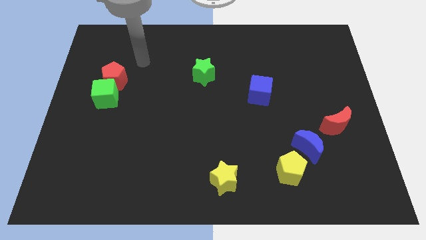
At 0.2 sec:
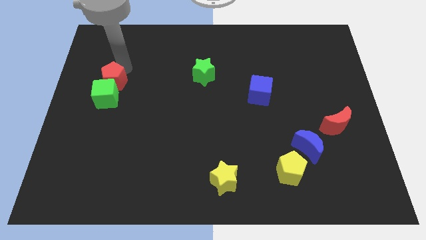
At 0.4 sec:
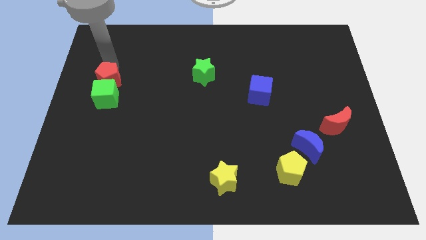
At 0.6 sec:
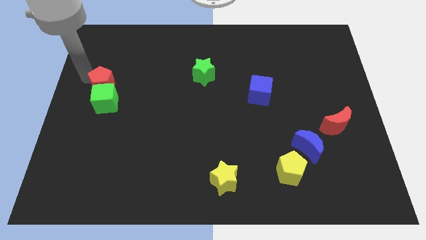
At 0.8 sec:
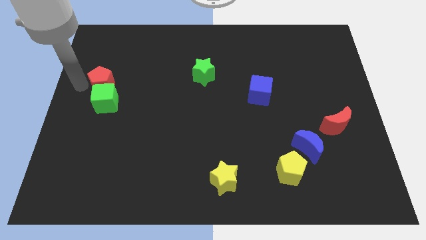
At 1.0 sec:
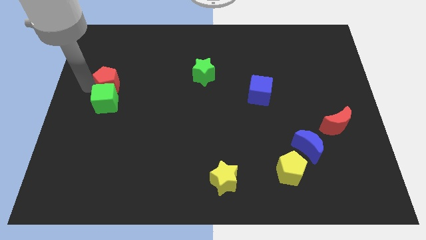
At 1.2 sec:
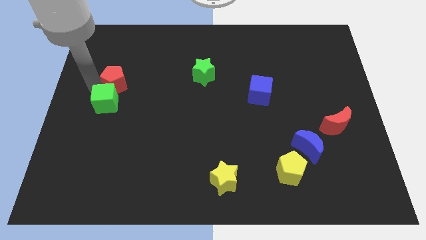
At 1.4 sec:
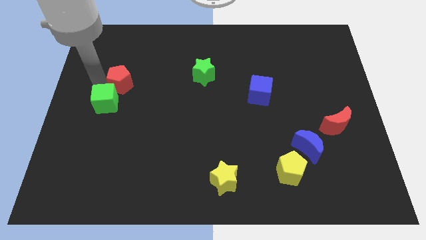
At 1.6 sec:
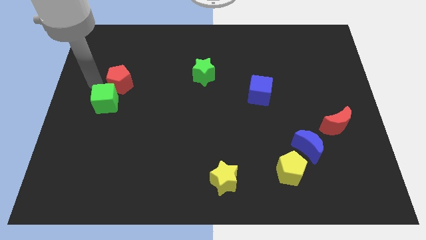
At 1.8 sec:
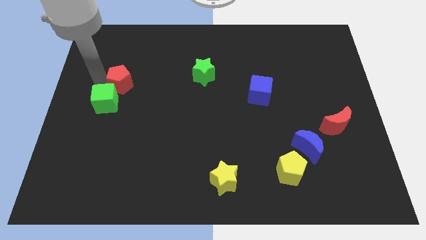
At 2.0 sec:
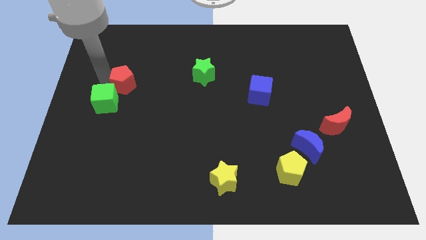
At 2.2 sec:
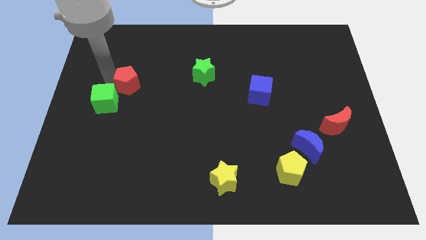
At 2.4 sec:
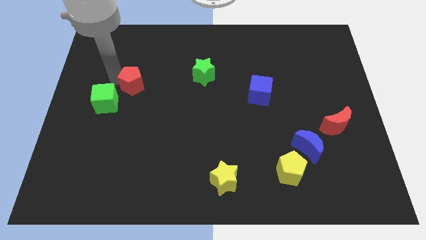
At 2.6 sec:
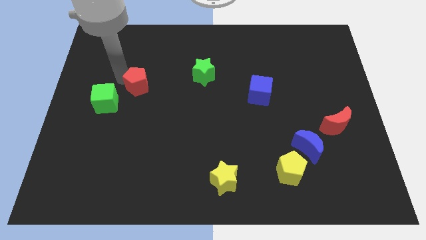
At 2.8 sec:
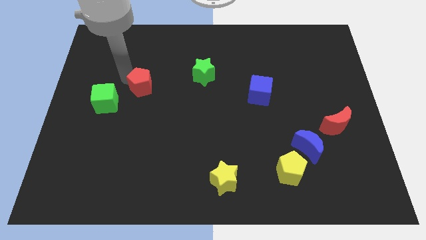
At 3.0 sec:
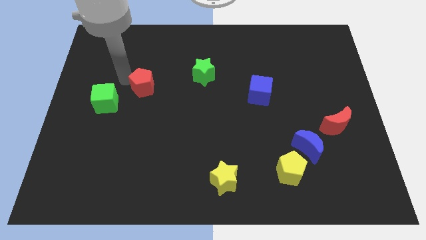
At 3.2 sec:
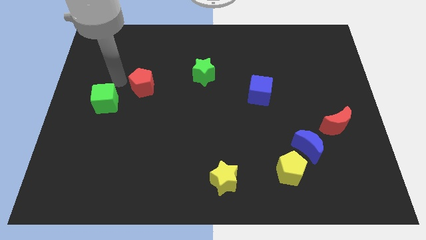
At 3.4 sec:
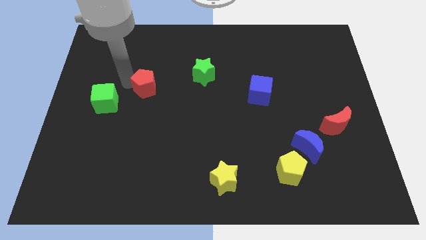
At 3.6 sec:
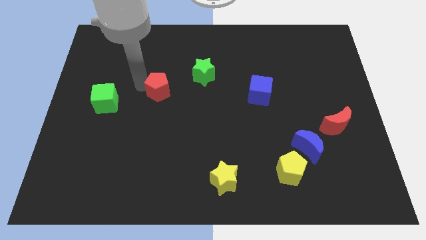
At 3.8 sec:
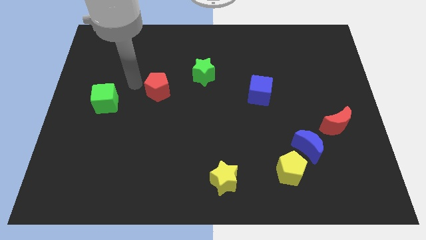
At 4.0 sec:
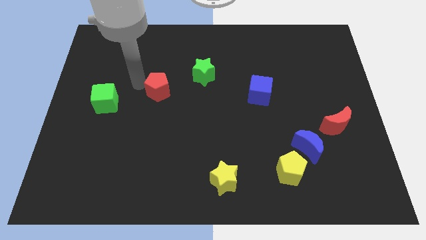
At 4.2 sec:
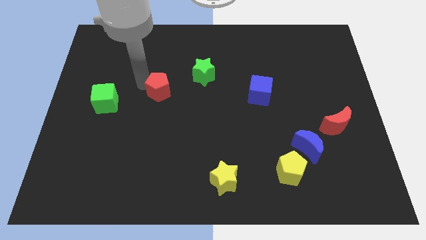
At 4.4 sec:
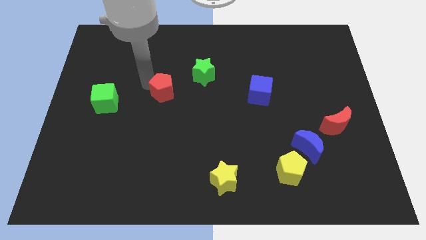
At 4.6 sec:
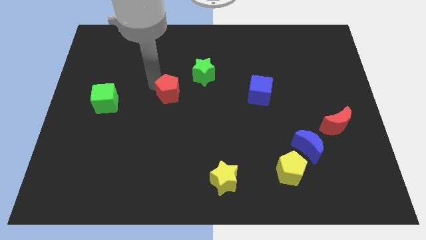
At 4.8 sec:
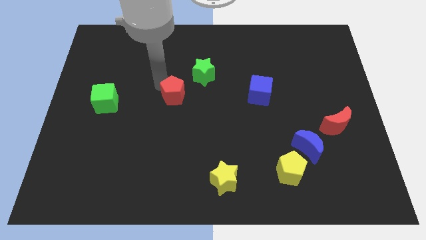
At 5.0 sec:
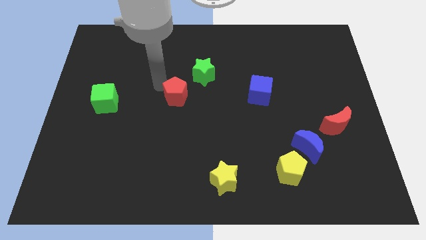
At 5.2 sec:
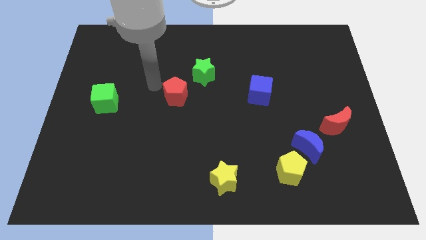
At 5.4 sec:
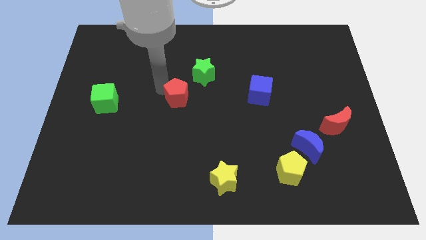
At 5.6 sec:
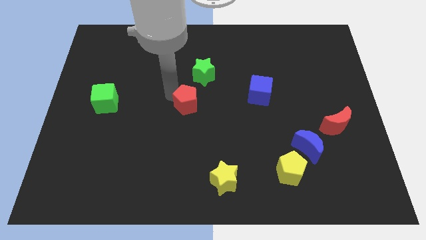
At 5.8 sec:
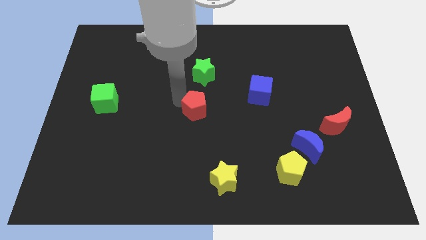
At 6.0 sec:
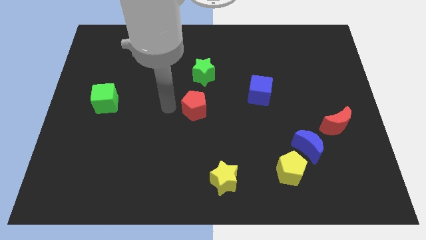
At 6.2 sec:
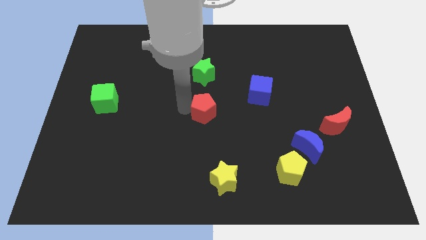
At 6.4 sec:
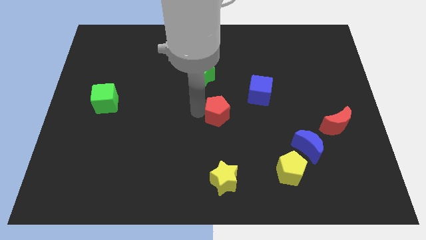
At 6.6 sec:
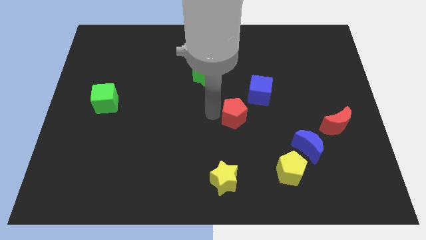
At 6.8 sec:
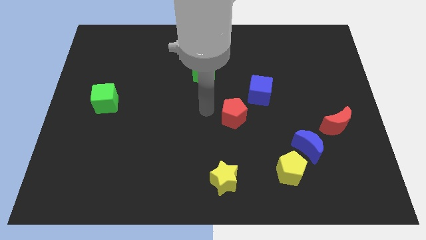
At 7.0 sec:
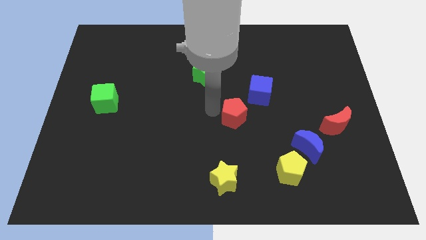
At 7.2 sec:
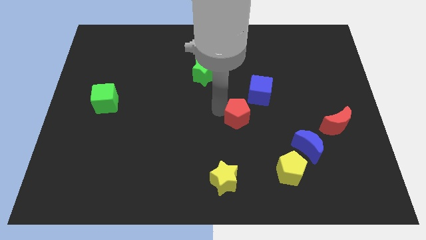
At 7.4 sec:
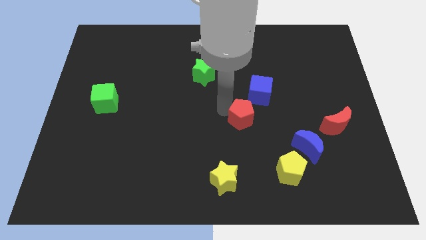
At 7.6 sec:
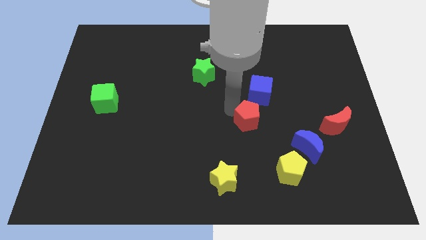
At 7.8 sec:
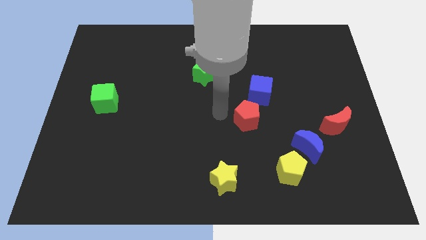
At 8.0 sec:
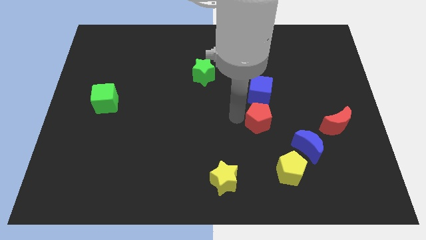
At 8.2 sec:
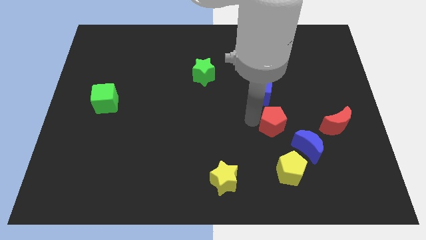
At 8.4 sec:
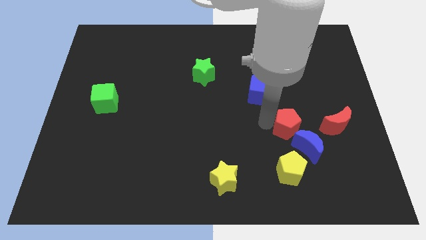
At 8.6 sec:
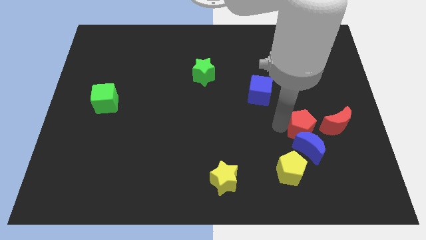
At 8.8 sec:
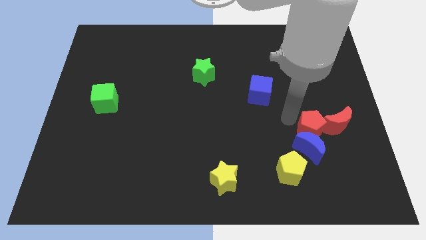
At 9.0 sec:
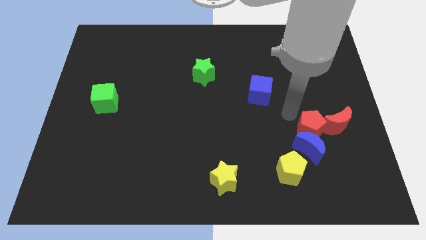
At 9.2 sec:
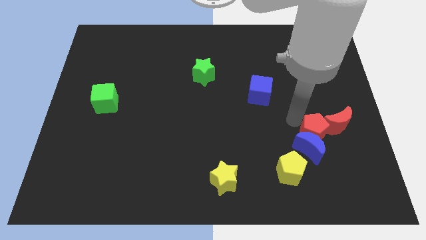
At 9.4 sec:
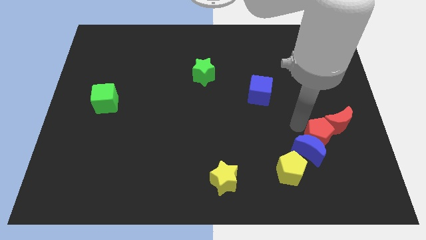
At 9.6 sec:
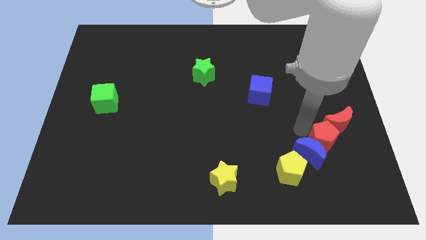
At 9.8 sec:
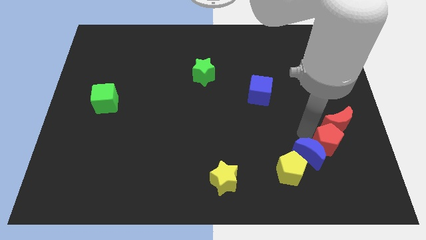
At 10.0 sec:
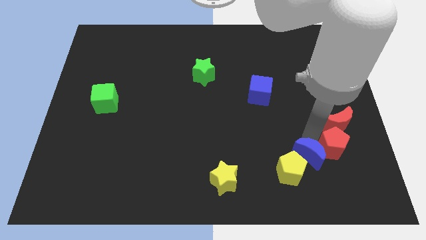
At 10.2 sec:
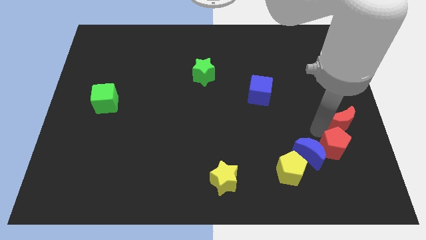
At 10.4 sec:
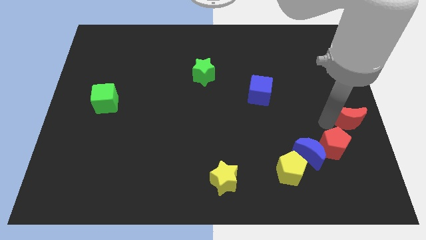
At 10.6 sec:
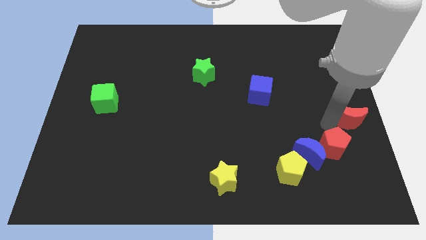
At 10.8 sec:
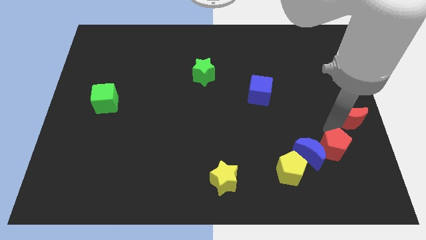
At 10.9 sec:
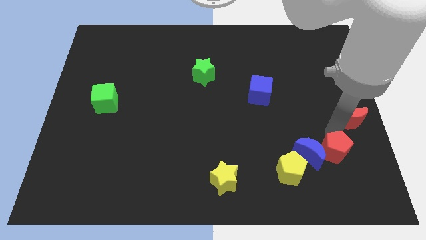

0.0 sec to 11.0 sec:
slide the red pentagon to the bottom right of the blue moon

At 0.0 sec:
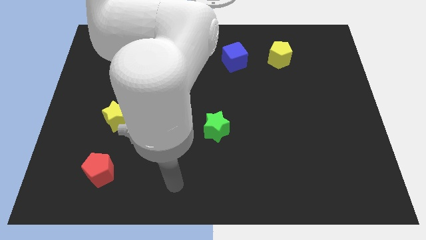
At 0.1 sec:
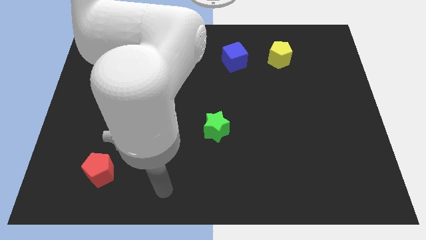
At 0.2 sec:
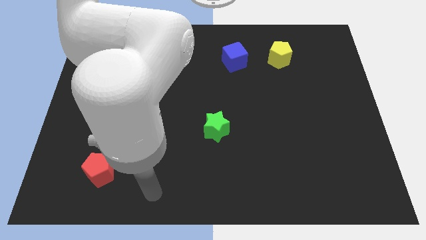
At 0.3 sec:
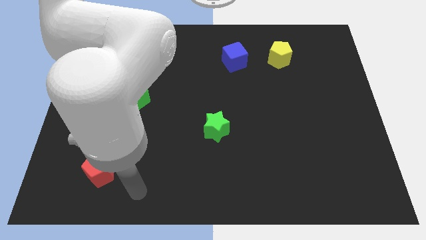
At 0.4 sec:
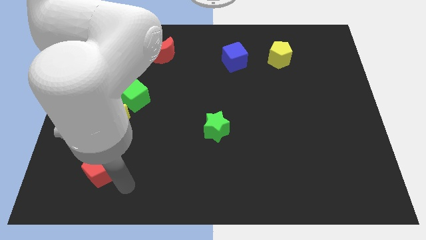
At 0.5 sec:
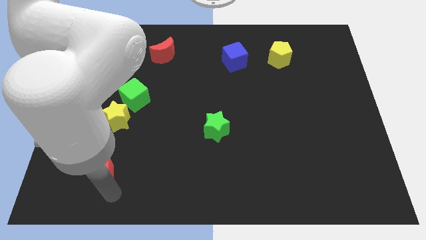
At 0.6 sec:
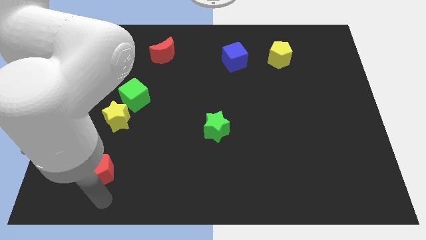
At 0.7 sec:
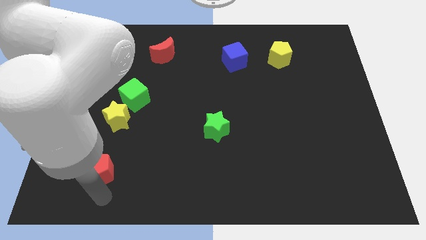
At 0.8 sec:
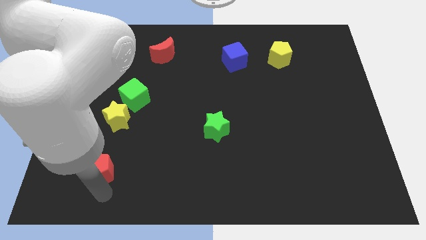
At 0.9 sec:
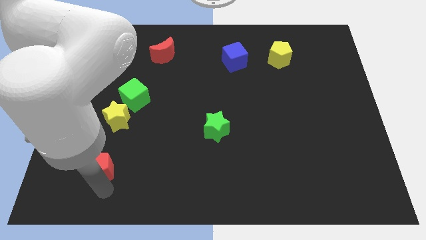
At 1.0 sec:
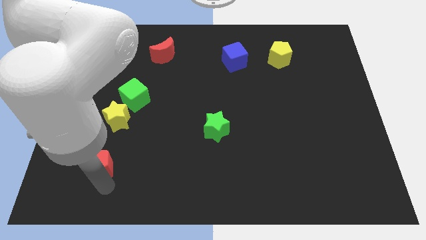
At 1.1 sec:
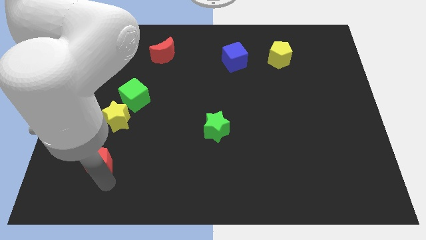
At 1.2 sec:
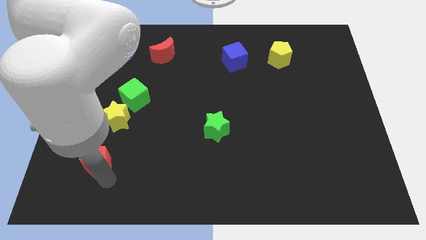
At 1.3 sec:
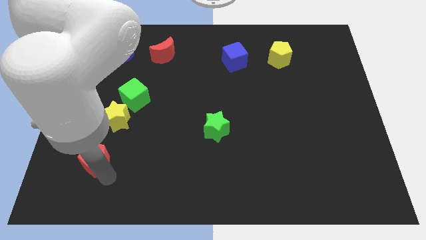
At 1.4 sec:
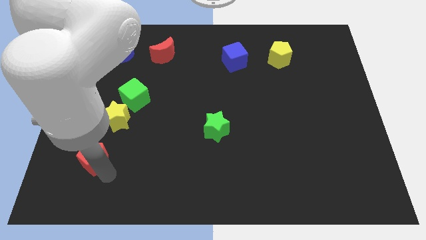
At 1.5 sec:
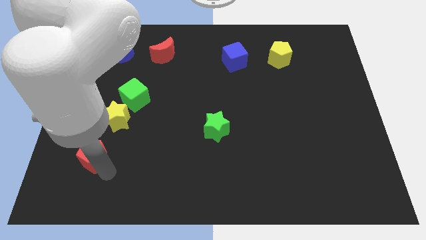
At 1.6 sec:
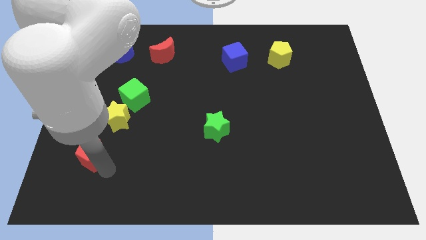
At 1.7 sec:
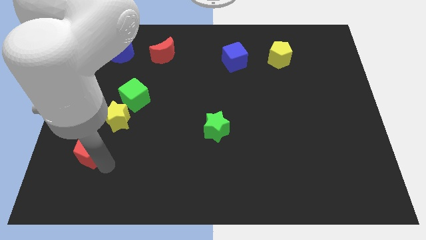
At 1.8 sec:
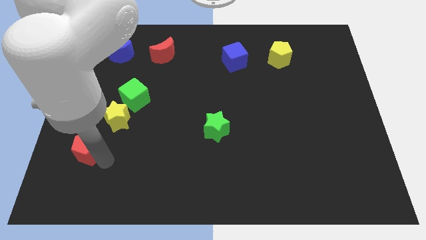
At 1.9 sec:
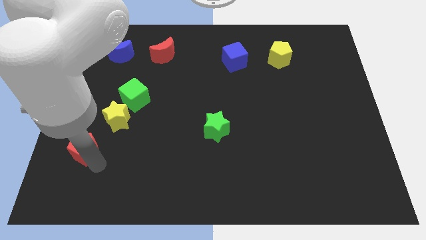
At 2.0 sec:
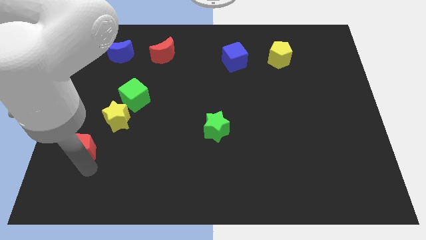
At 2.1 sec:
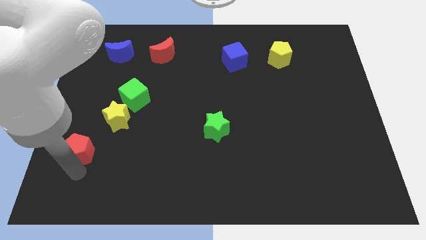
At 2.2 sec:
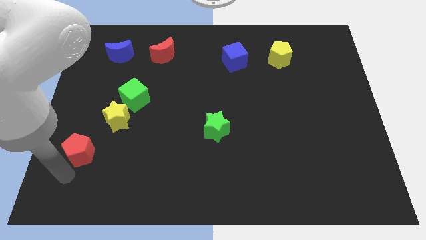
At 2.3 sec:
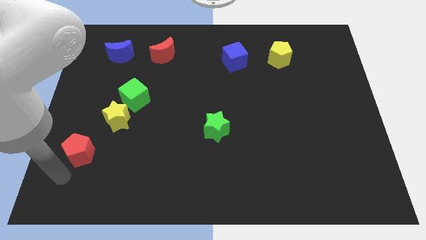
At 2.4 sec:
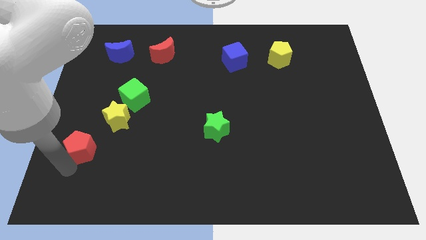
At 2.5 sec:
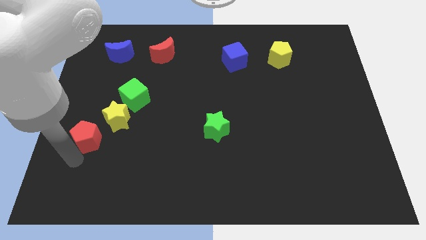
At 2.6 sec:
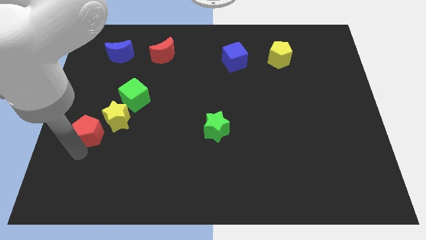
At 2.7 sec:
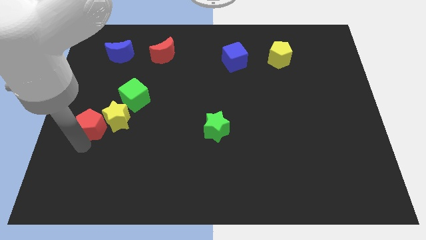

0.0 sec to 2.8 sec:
put the red pentagon diagonally down and to the left of the green cube
